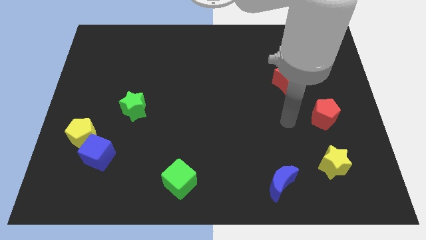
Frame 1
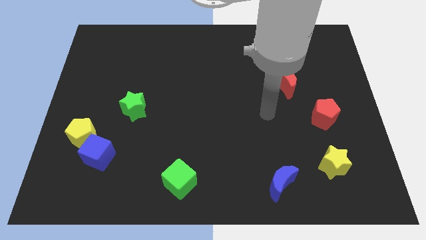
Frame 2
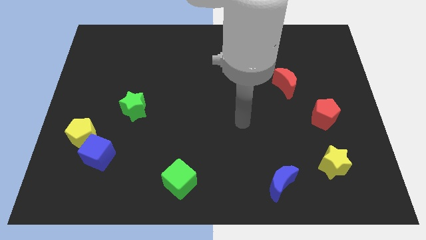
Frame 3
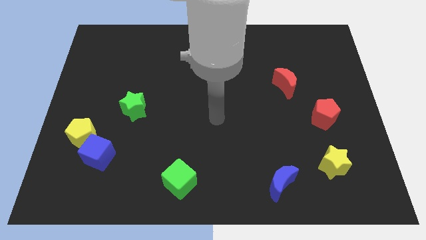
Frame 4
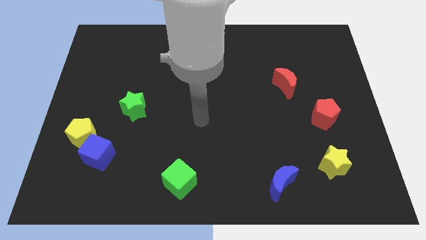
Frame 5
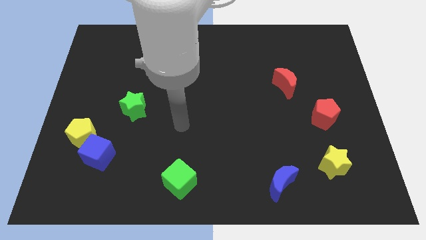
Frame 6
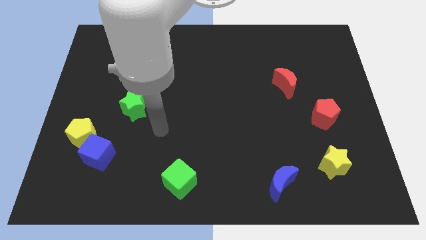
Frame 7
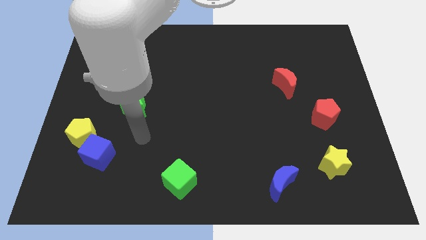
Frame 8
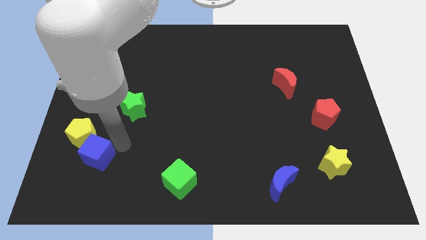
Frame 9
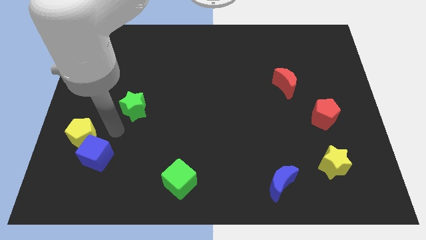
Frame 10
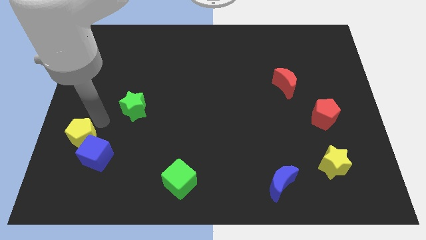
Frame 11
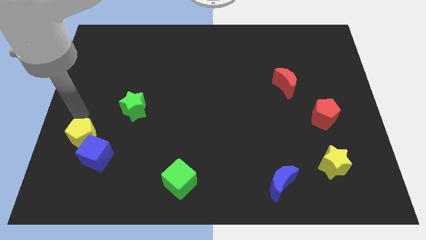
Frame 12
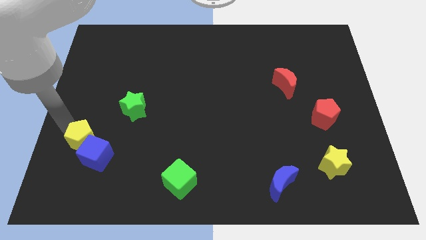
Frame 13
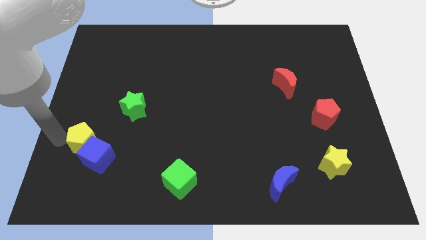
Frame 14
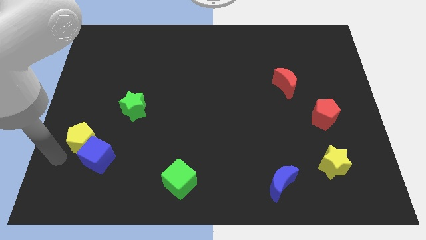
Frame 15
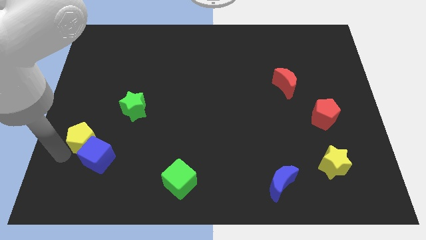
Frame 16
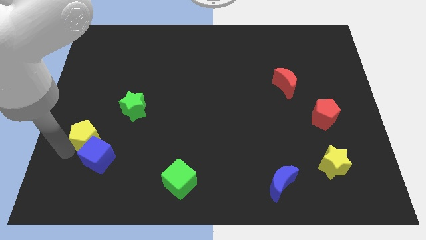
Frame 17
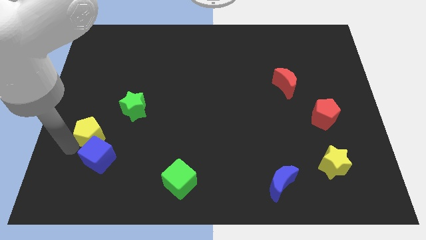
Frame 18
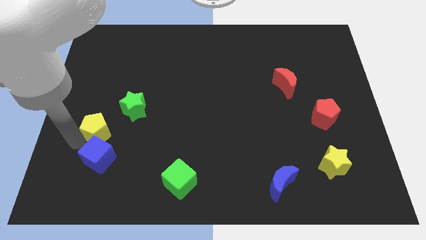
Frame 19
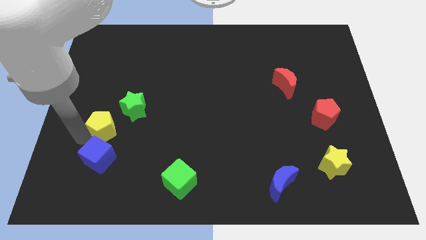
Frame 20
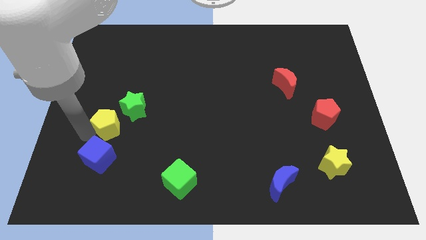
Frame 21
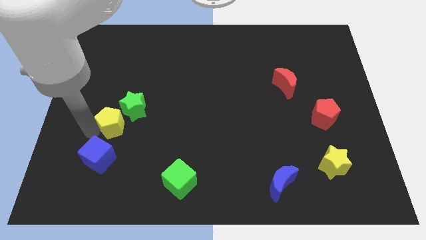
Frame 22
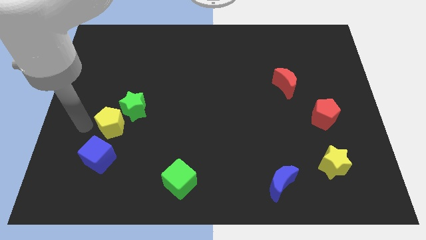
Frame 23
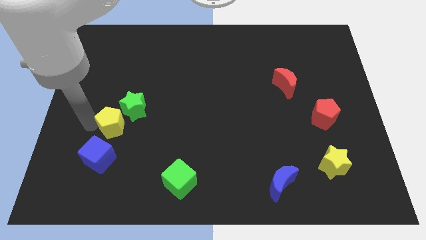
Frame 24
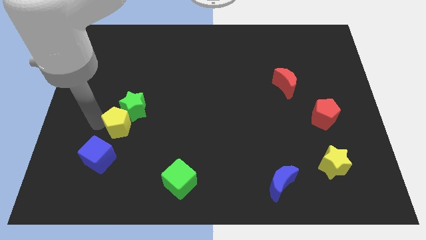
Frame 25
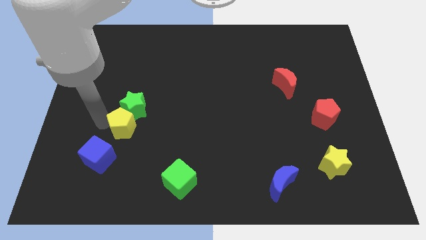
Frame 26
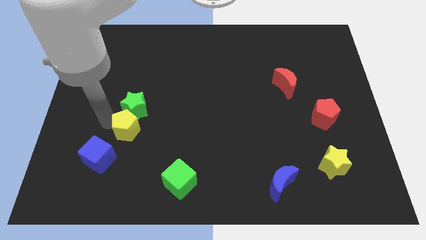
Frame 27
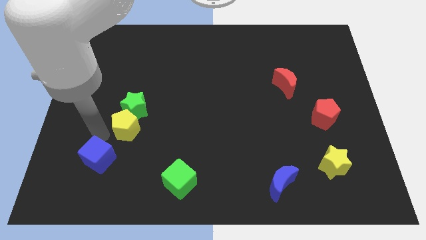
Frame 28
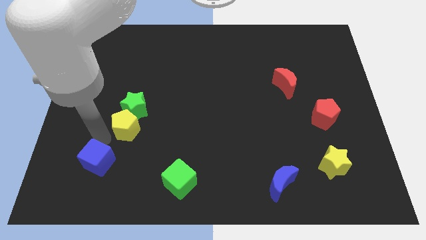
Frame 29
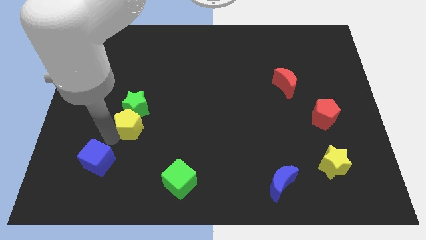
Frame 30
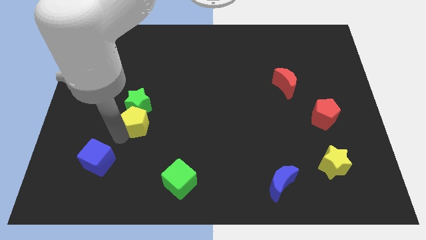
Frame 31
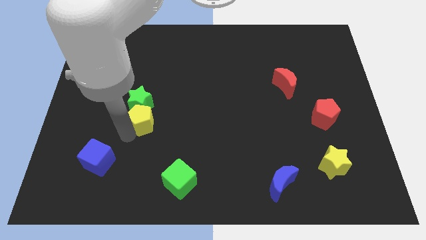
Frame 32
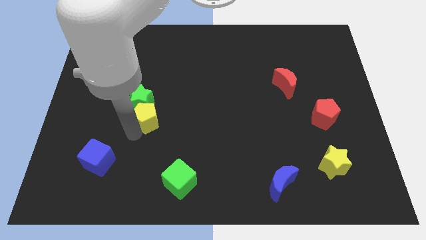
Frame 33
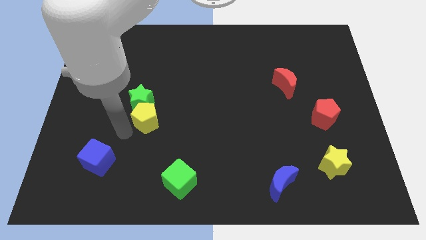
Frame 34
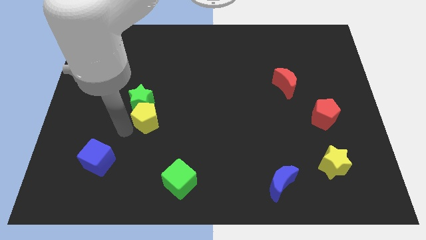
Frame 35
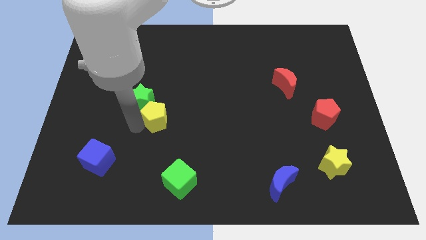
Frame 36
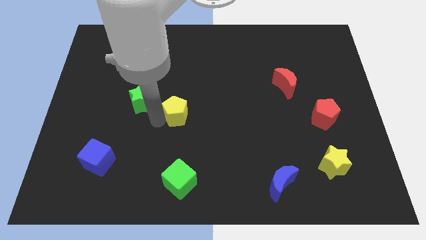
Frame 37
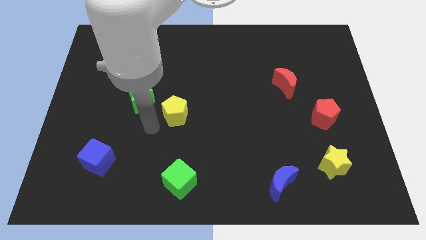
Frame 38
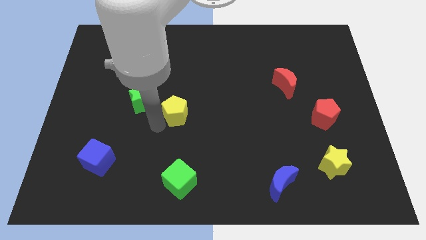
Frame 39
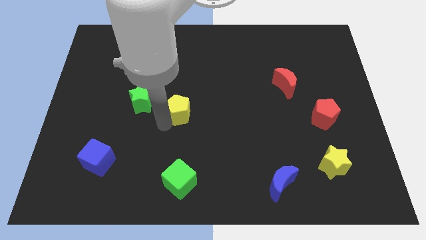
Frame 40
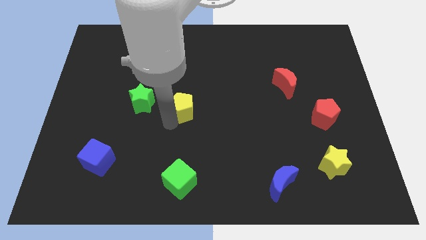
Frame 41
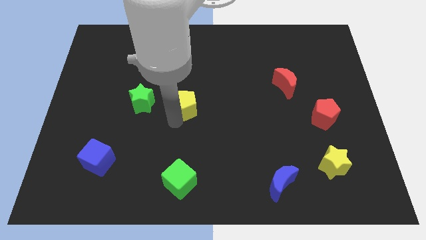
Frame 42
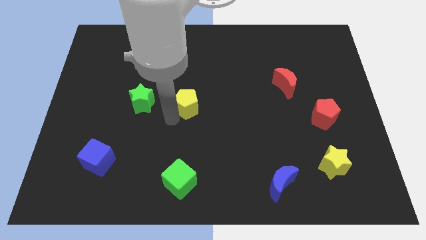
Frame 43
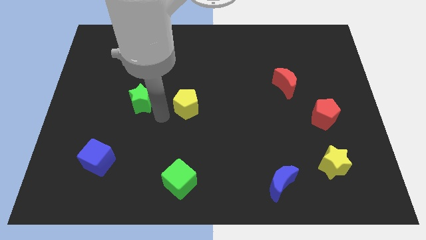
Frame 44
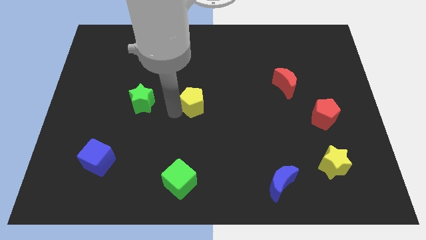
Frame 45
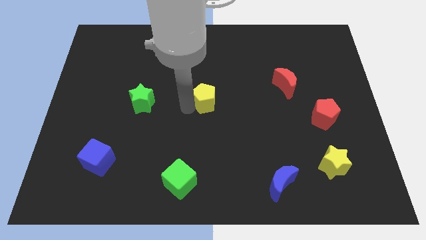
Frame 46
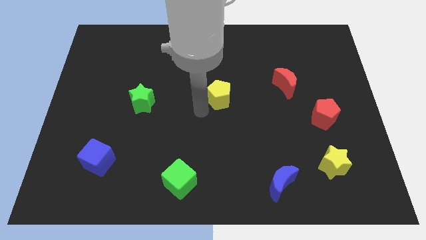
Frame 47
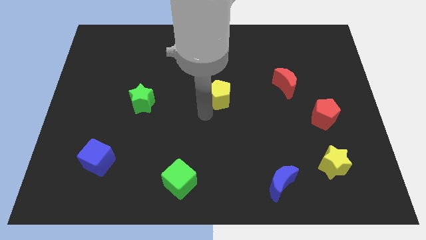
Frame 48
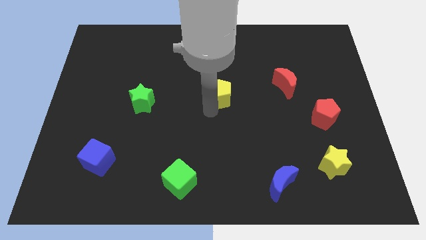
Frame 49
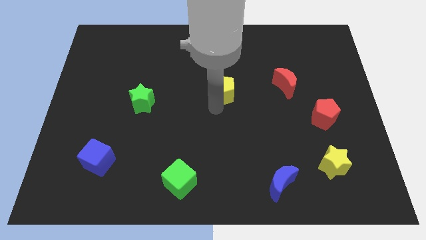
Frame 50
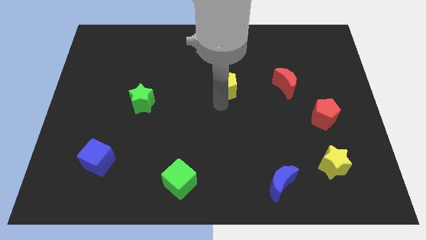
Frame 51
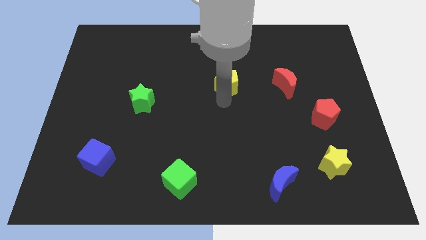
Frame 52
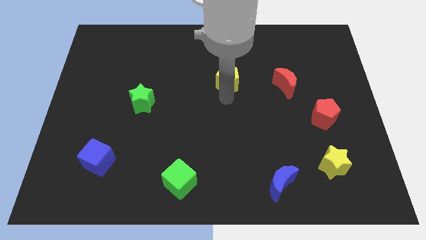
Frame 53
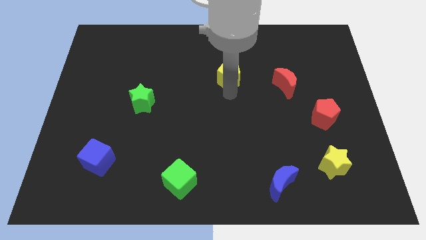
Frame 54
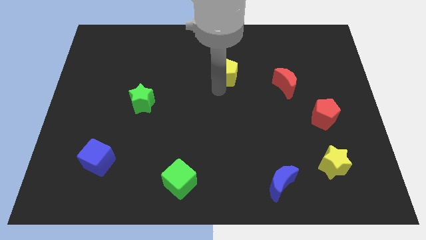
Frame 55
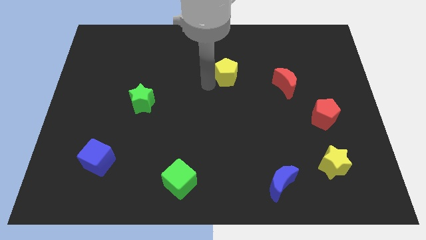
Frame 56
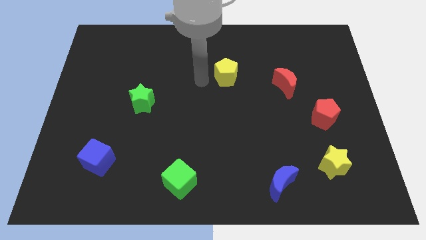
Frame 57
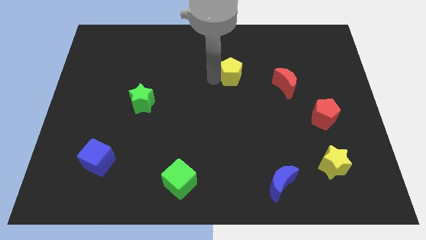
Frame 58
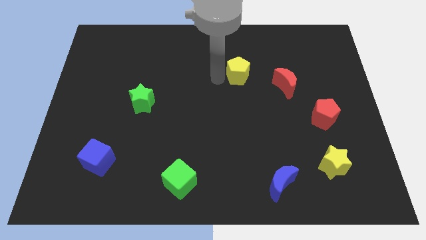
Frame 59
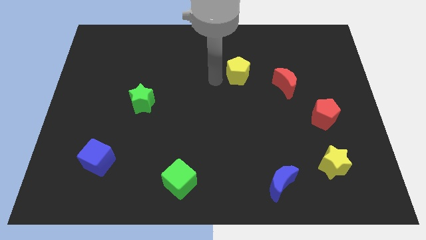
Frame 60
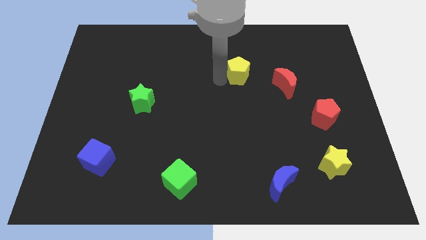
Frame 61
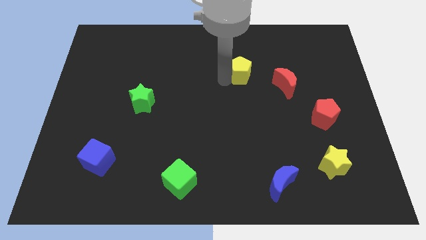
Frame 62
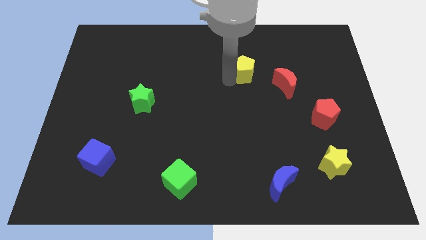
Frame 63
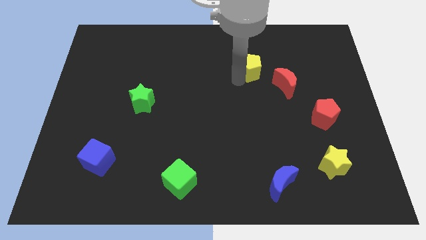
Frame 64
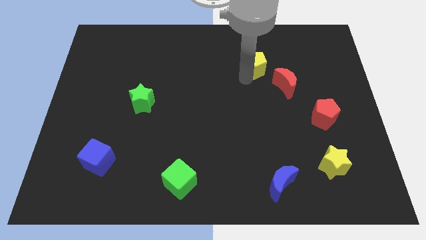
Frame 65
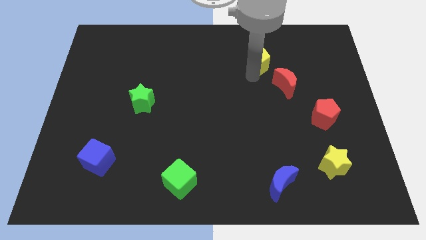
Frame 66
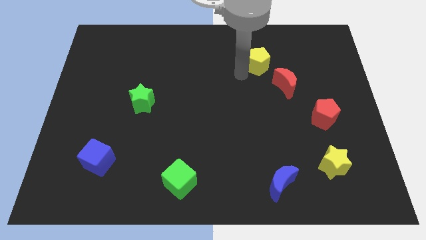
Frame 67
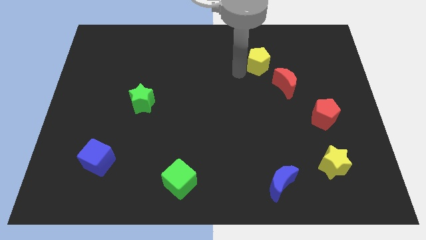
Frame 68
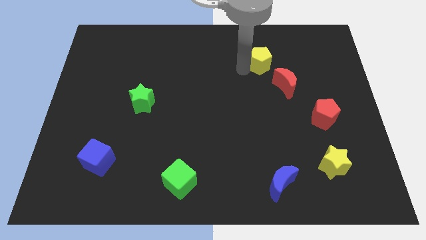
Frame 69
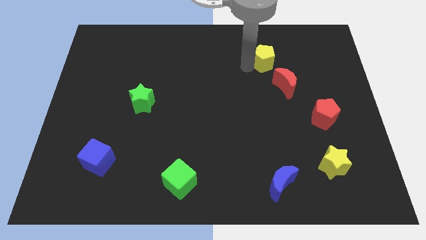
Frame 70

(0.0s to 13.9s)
put the yellow pentagon to the top side of the red moon
